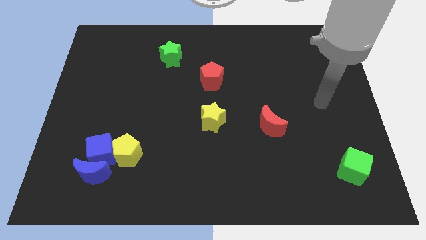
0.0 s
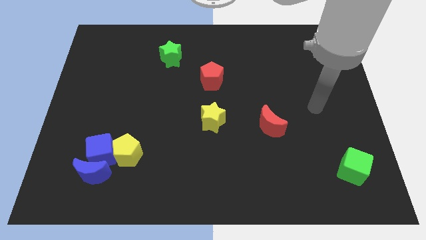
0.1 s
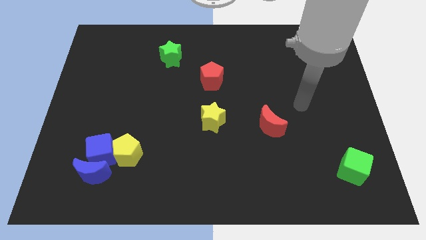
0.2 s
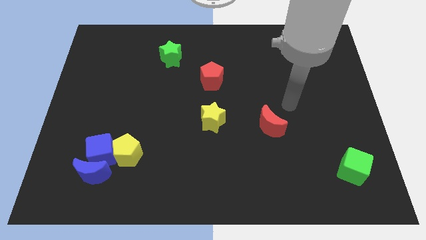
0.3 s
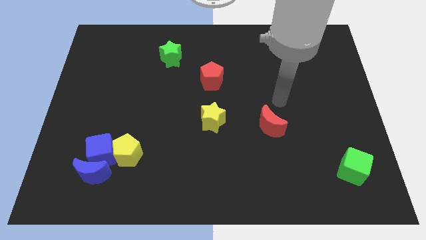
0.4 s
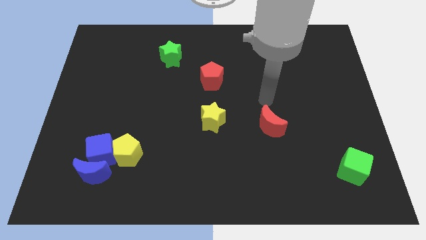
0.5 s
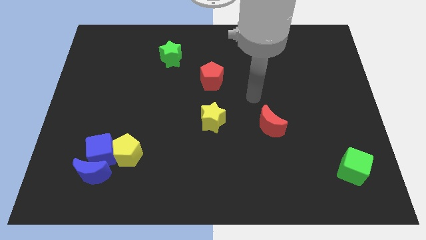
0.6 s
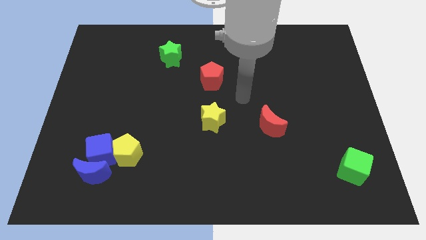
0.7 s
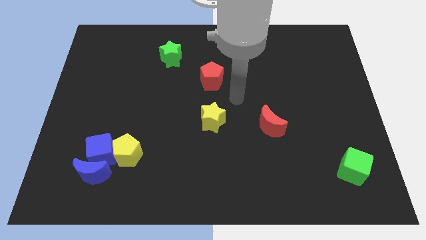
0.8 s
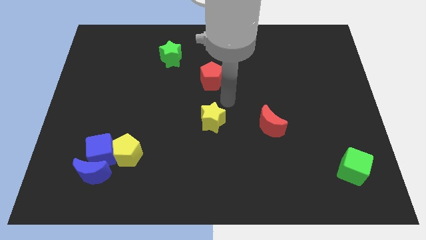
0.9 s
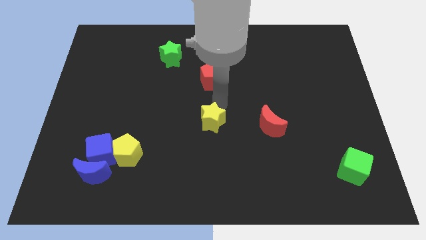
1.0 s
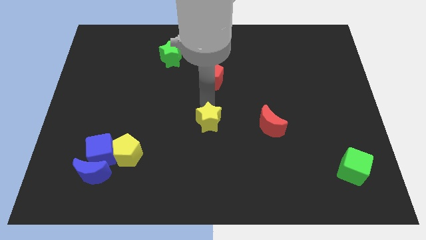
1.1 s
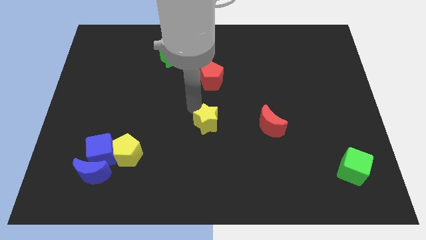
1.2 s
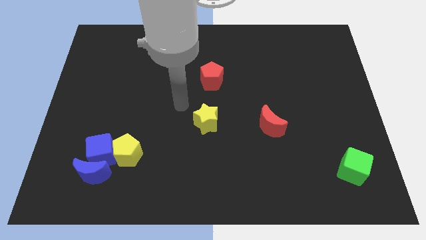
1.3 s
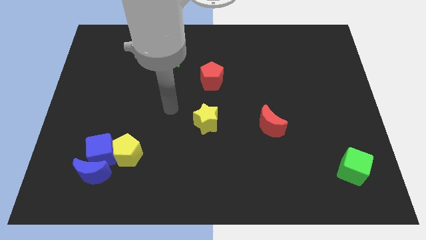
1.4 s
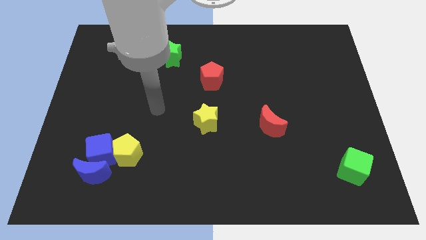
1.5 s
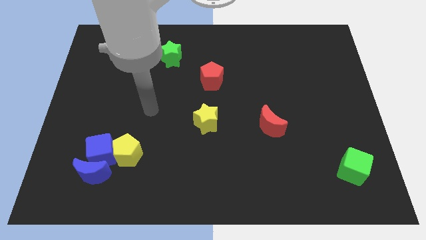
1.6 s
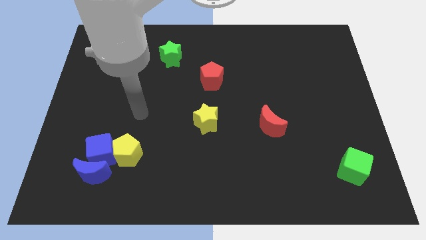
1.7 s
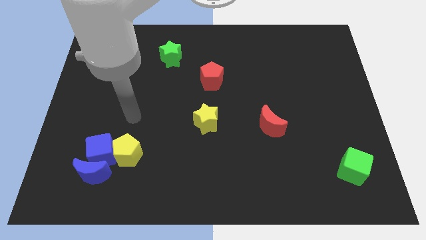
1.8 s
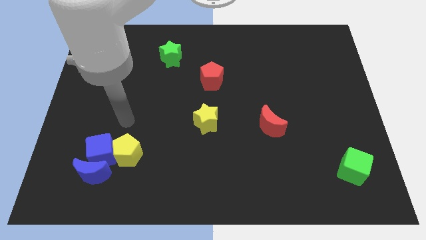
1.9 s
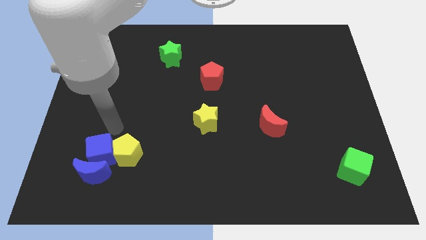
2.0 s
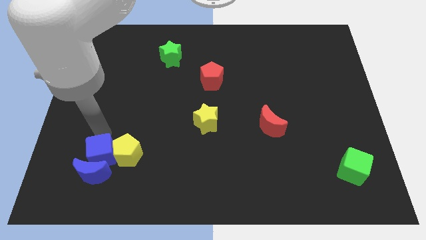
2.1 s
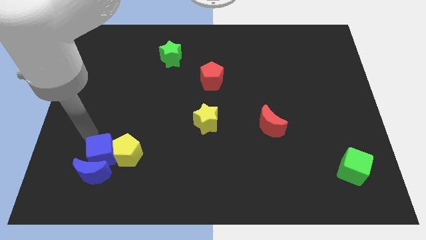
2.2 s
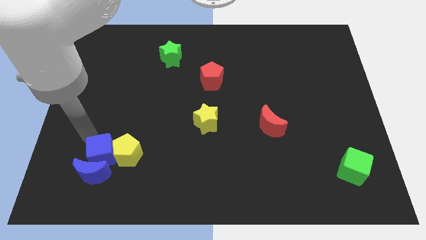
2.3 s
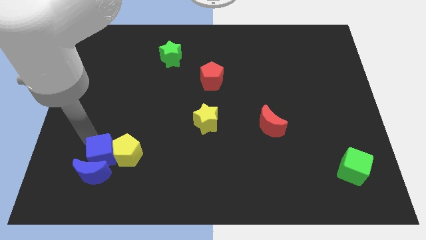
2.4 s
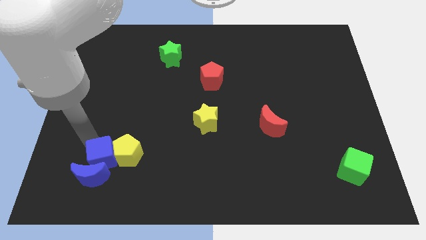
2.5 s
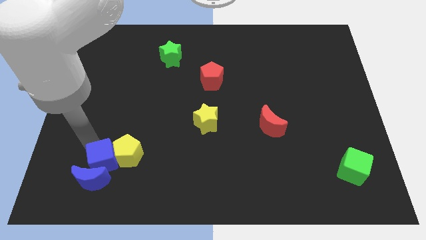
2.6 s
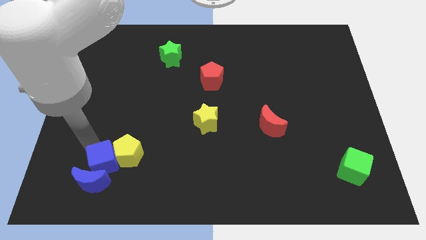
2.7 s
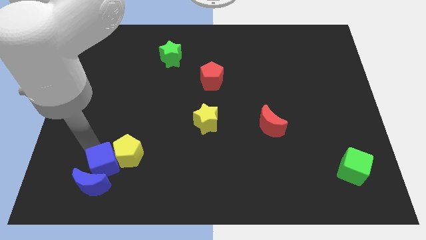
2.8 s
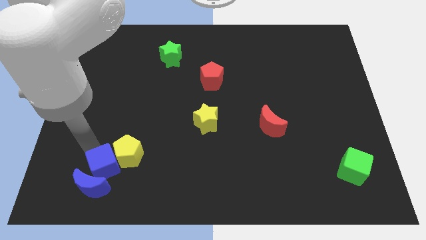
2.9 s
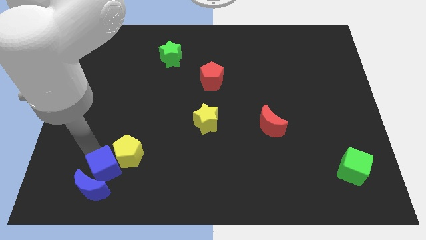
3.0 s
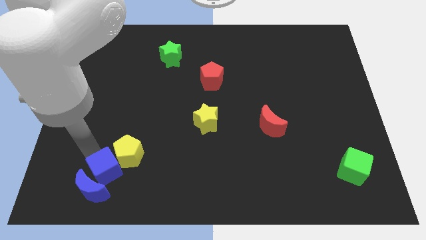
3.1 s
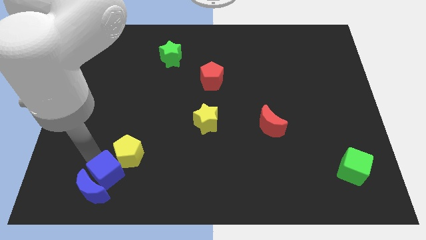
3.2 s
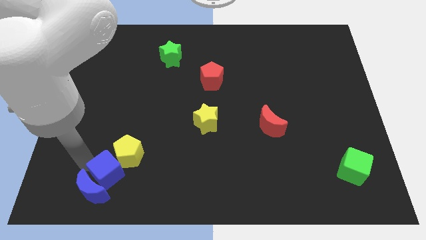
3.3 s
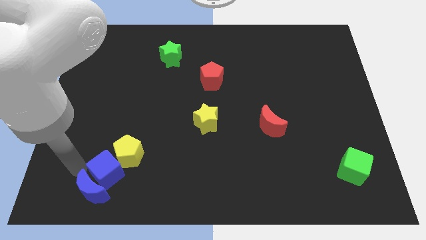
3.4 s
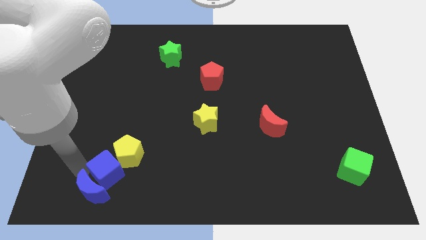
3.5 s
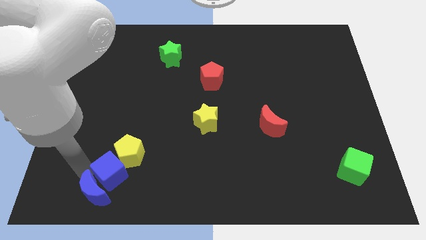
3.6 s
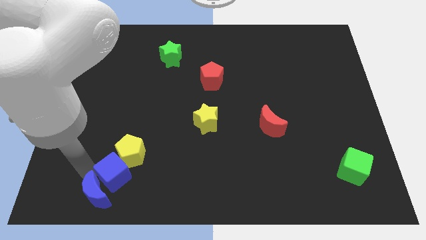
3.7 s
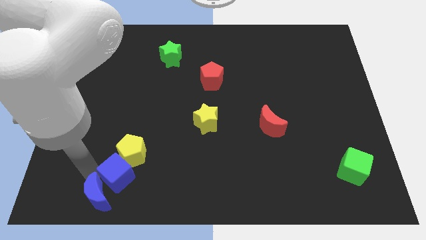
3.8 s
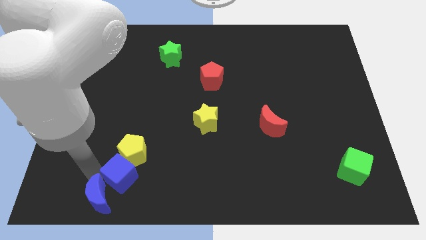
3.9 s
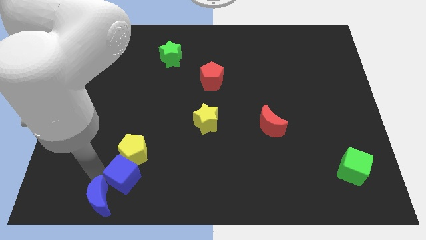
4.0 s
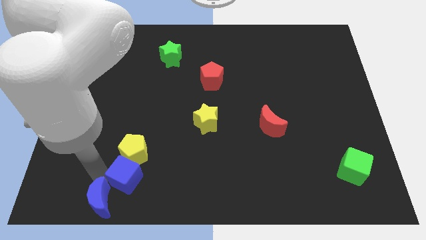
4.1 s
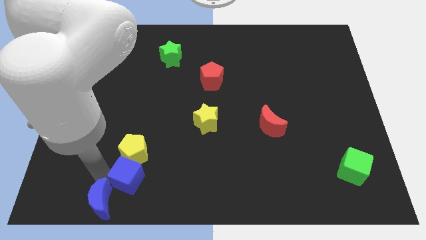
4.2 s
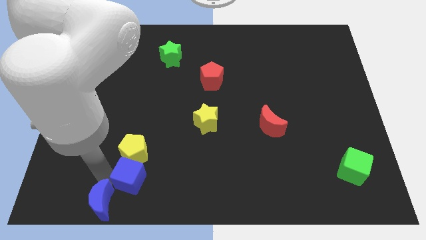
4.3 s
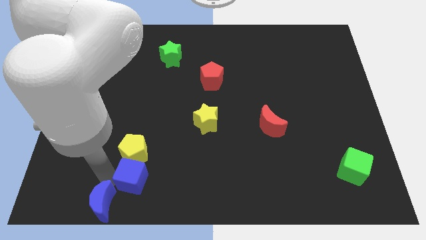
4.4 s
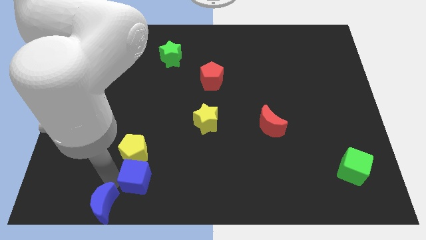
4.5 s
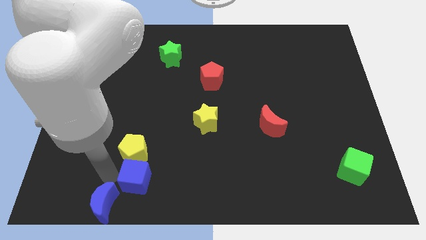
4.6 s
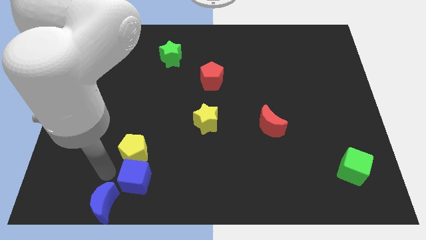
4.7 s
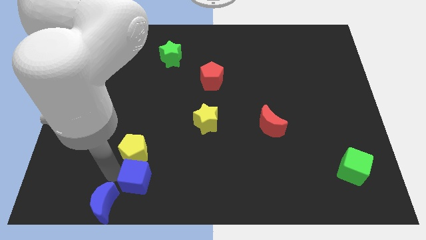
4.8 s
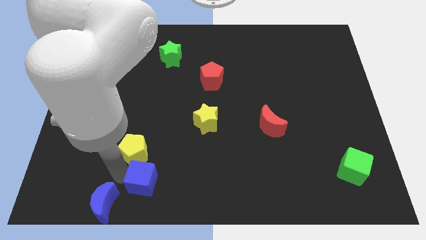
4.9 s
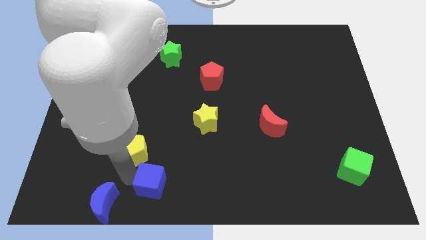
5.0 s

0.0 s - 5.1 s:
slide the blue cube to the bottom

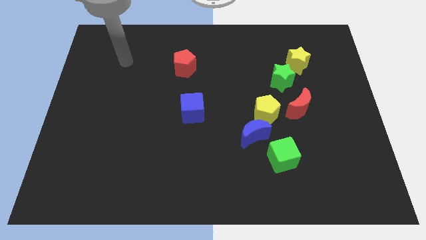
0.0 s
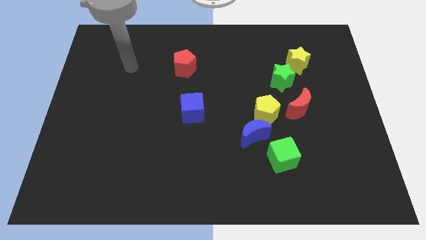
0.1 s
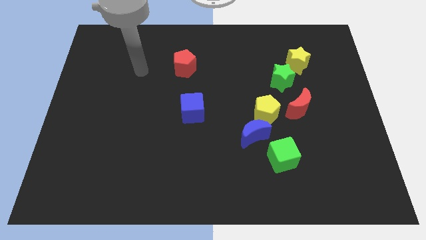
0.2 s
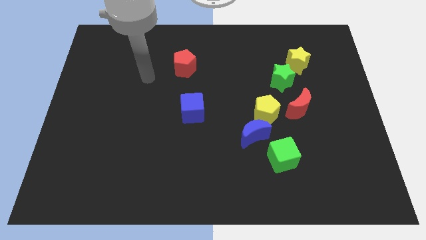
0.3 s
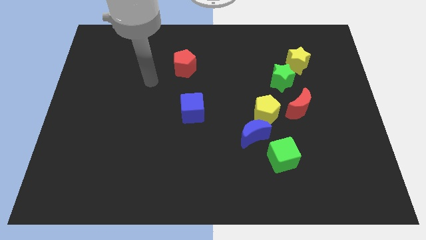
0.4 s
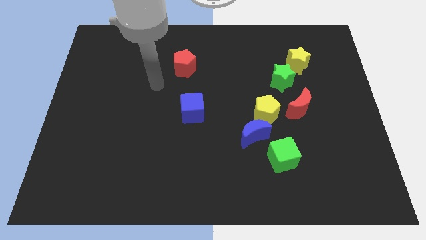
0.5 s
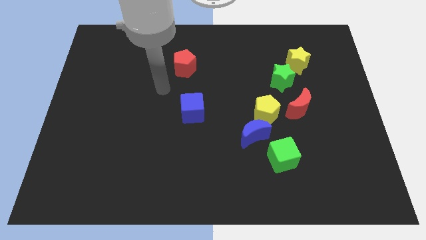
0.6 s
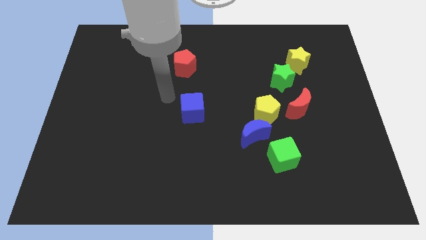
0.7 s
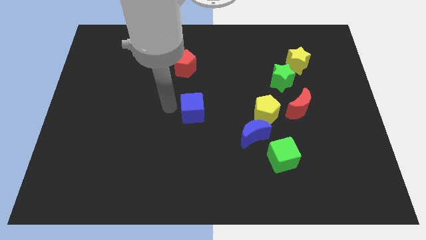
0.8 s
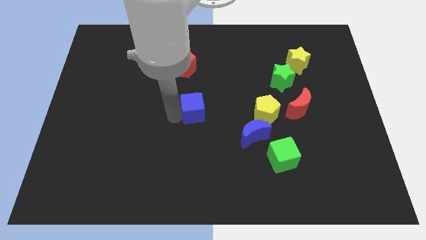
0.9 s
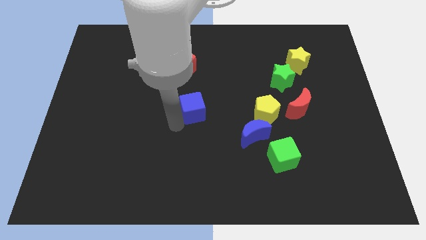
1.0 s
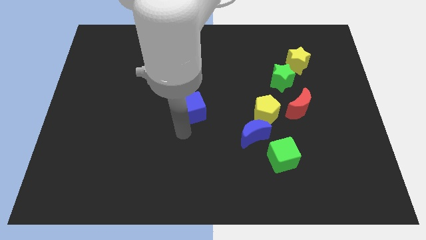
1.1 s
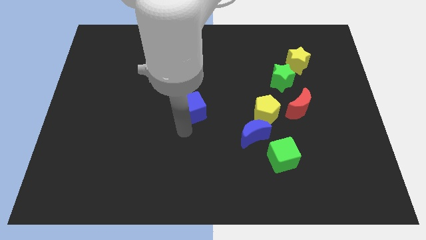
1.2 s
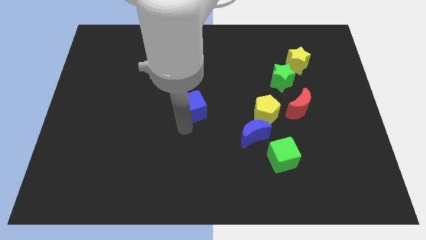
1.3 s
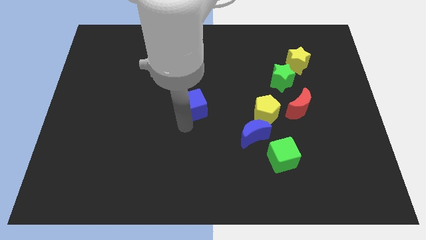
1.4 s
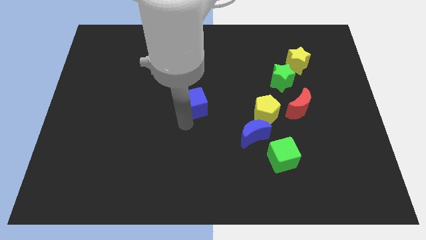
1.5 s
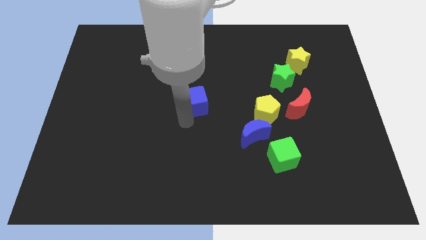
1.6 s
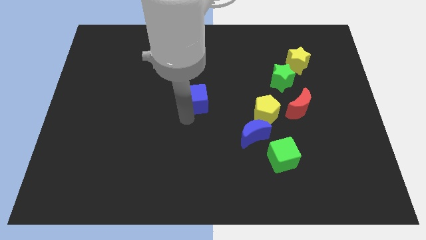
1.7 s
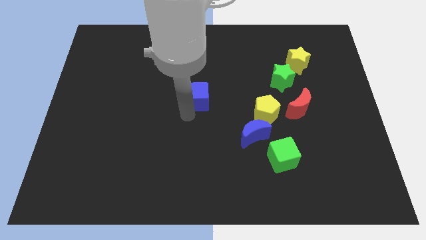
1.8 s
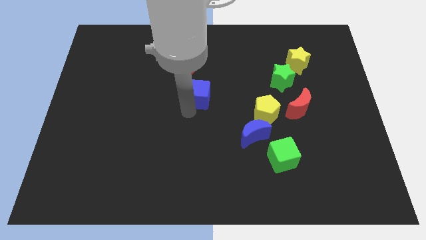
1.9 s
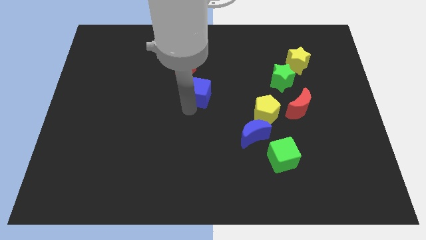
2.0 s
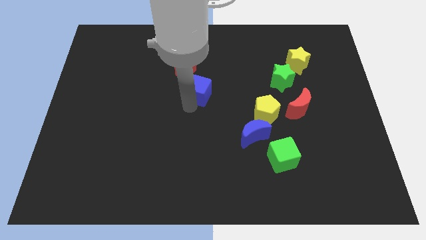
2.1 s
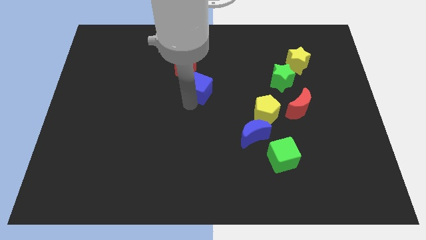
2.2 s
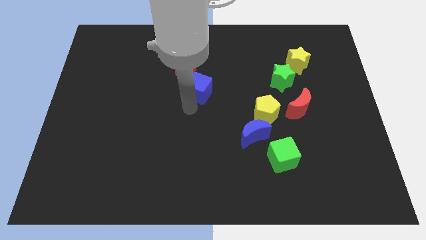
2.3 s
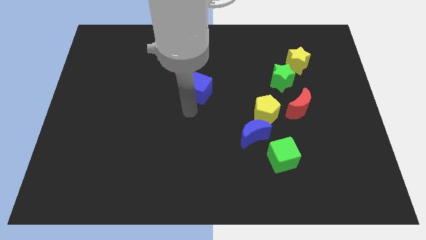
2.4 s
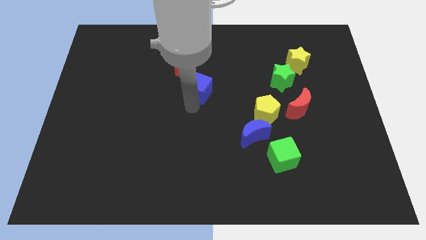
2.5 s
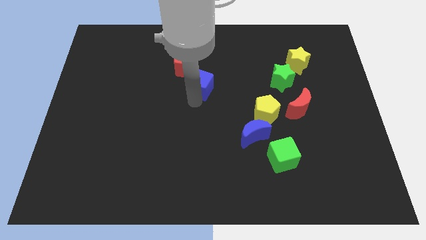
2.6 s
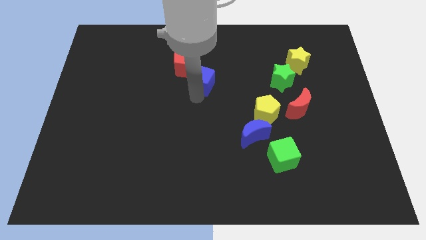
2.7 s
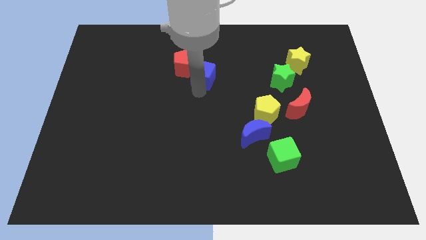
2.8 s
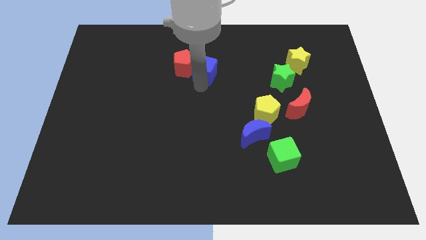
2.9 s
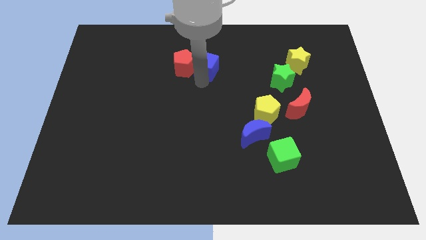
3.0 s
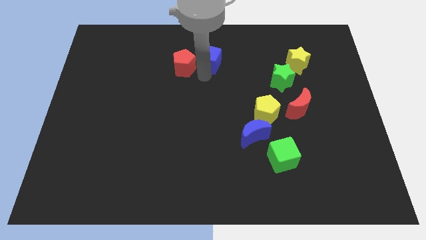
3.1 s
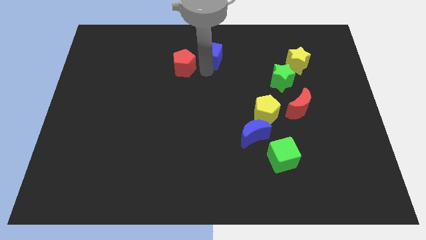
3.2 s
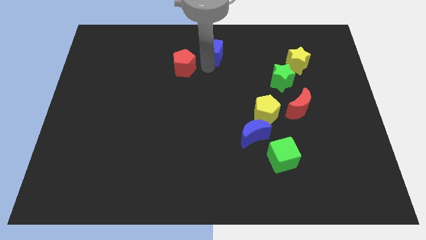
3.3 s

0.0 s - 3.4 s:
slide the blue cube to the towards your base

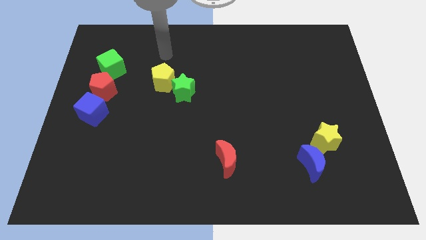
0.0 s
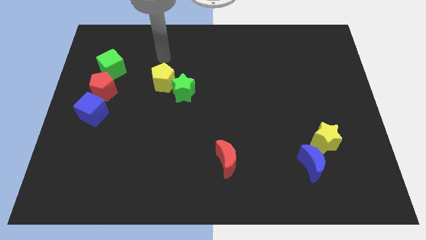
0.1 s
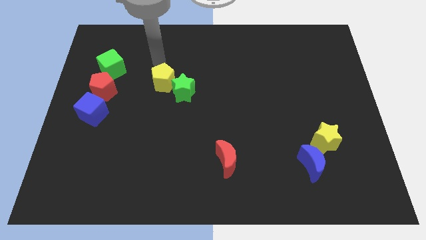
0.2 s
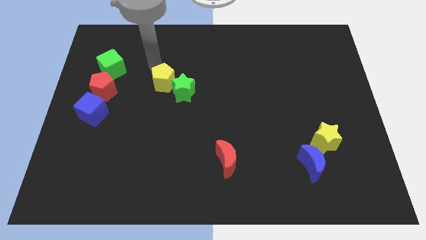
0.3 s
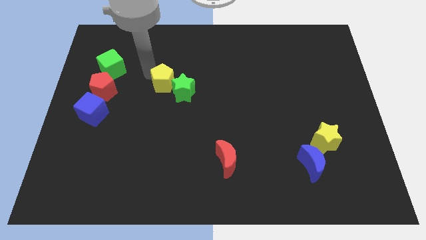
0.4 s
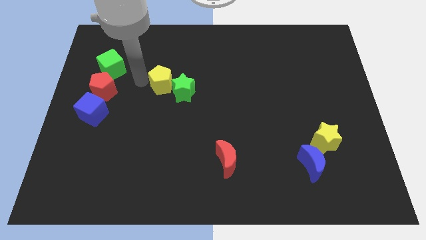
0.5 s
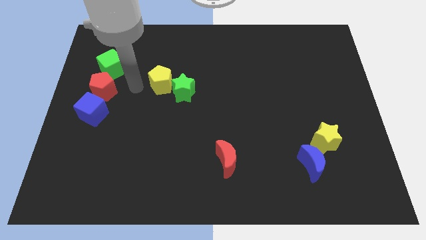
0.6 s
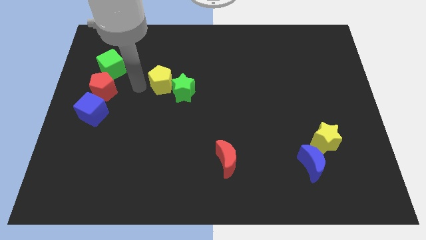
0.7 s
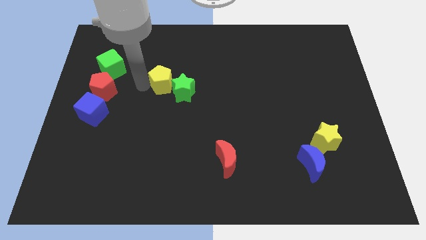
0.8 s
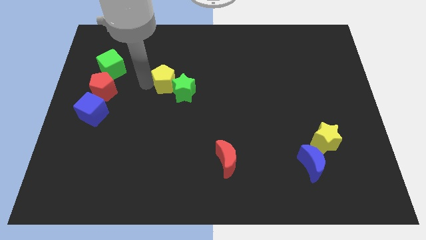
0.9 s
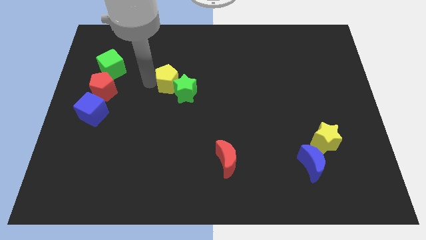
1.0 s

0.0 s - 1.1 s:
push the yellow pentagon to the center
